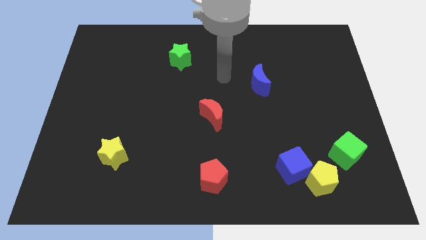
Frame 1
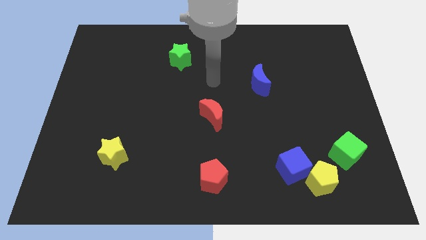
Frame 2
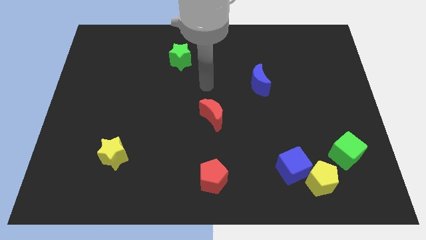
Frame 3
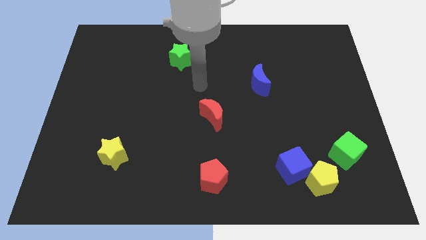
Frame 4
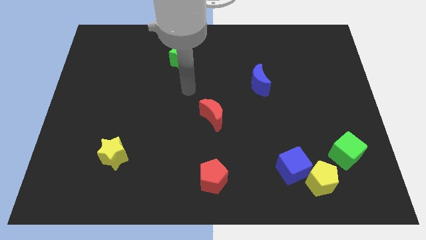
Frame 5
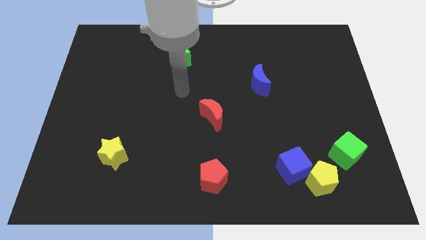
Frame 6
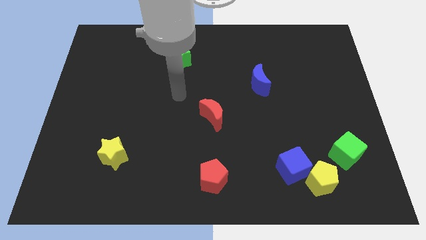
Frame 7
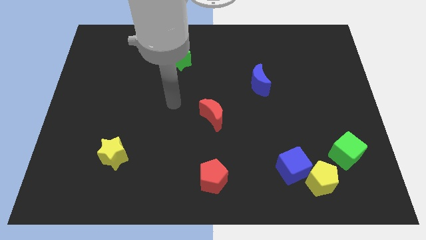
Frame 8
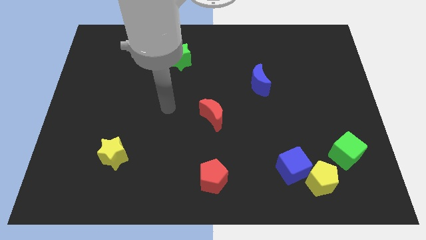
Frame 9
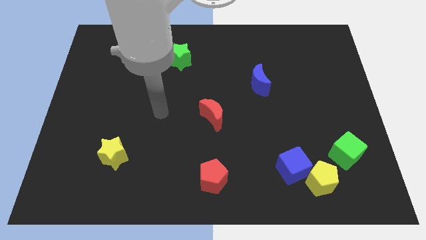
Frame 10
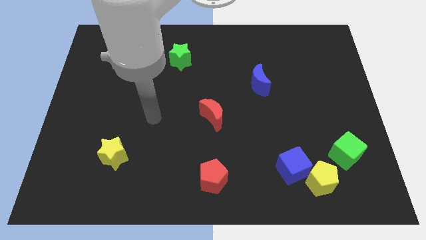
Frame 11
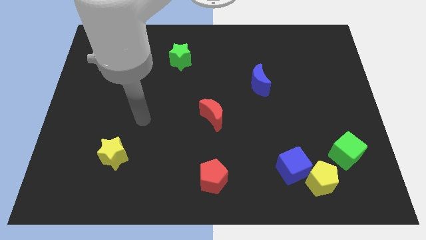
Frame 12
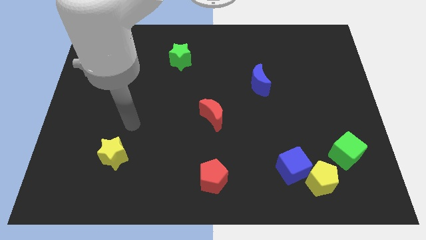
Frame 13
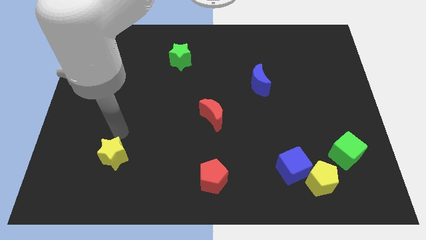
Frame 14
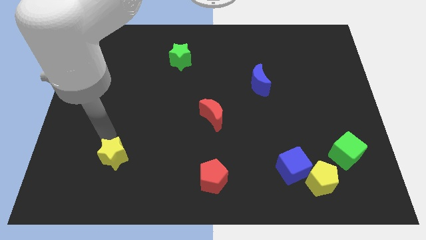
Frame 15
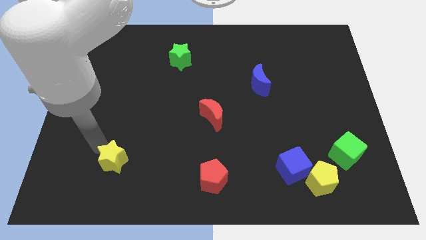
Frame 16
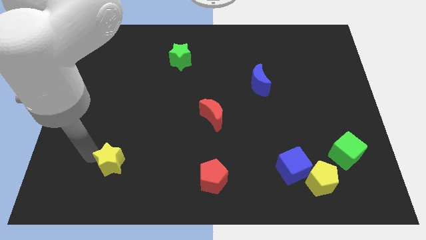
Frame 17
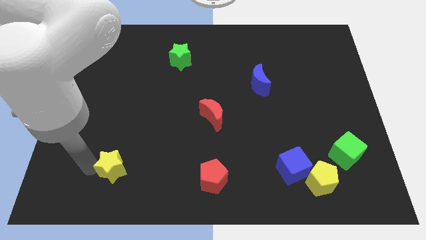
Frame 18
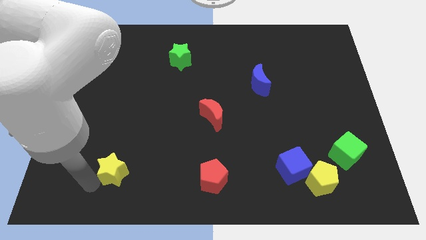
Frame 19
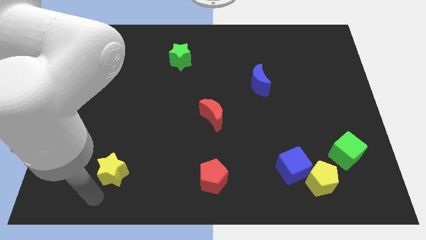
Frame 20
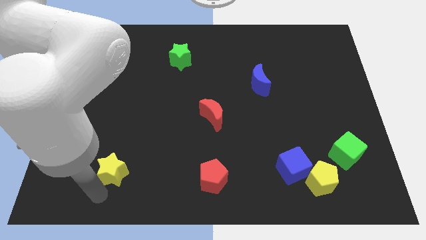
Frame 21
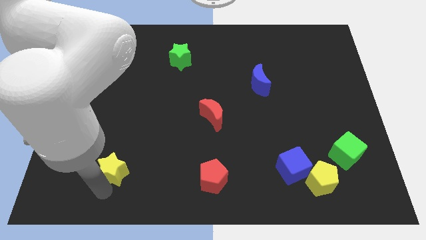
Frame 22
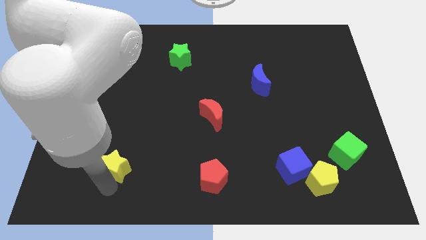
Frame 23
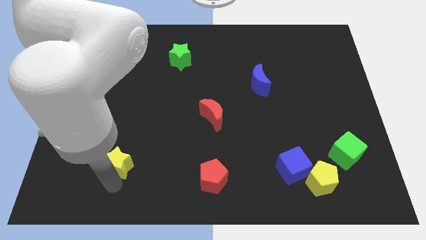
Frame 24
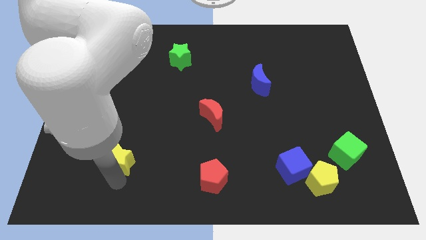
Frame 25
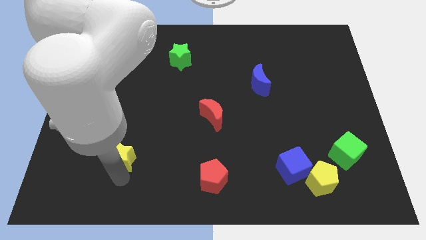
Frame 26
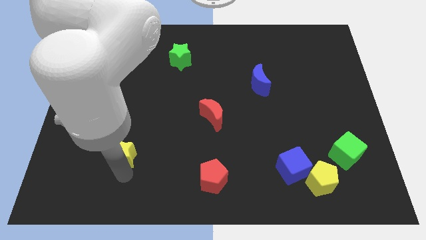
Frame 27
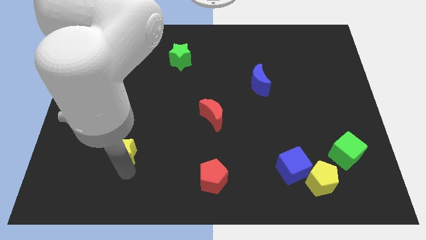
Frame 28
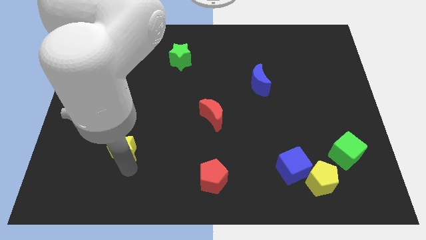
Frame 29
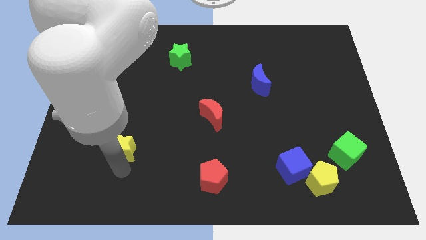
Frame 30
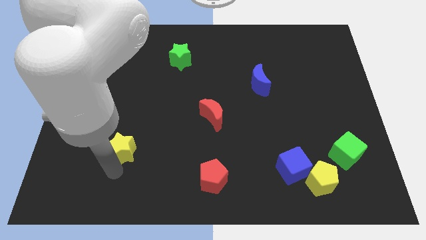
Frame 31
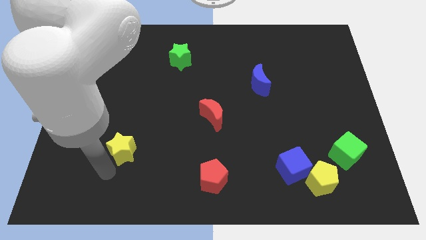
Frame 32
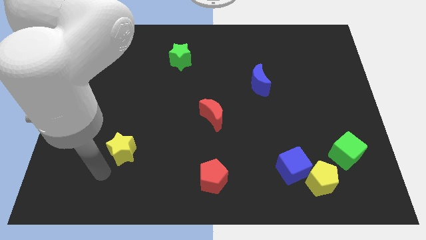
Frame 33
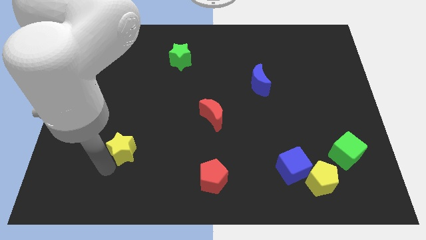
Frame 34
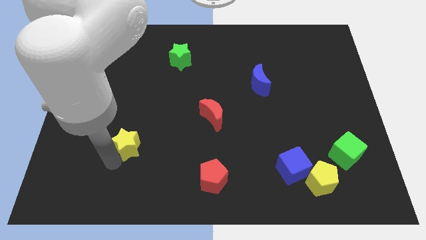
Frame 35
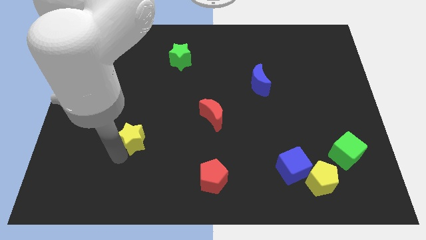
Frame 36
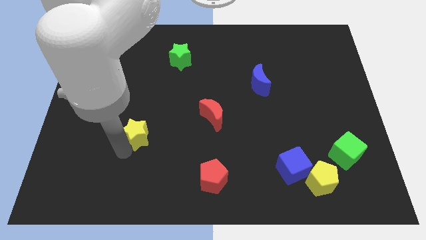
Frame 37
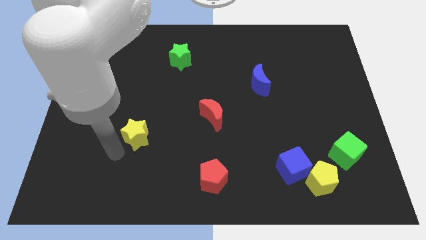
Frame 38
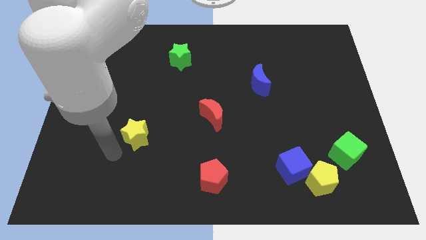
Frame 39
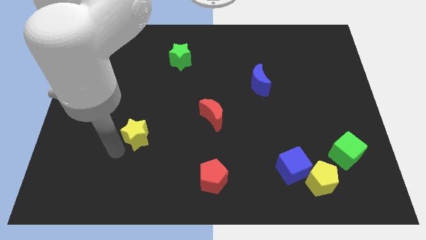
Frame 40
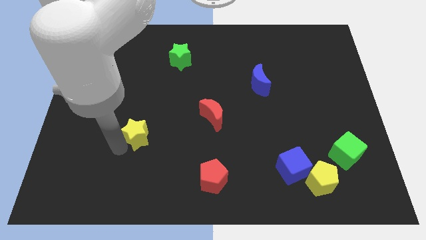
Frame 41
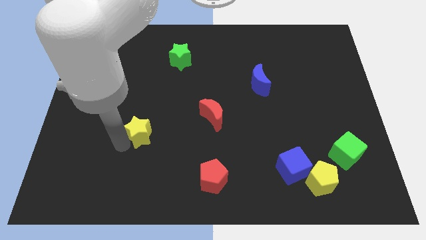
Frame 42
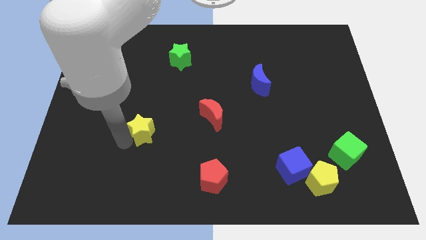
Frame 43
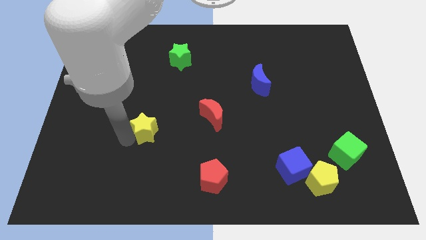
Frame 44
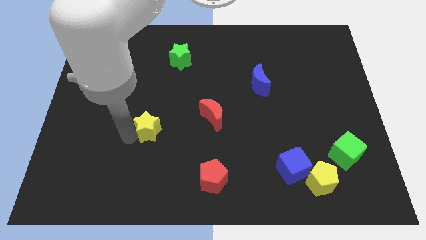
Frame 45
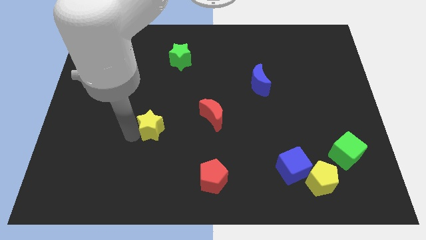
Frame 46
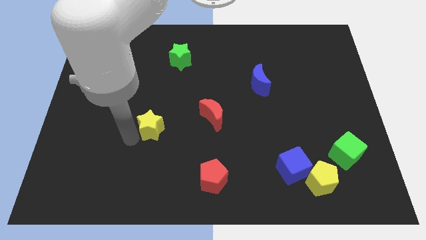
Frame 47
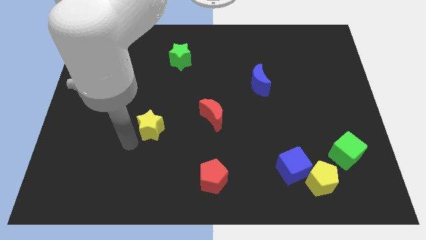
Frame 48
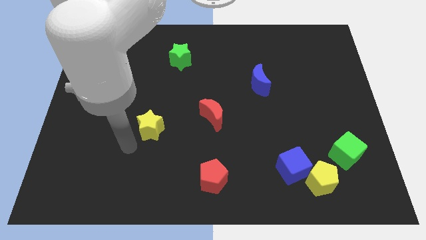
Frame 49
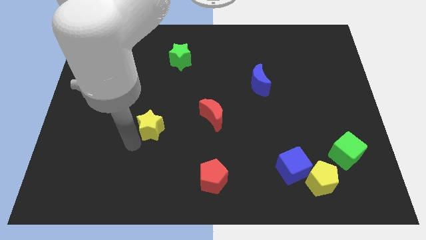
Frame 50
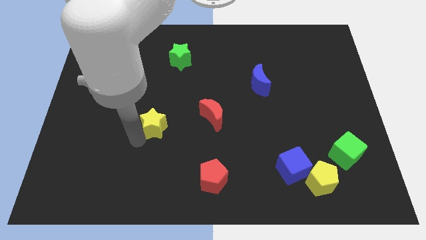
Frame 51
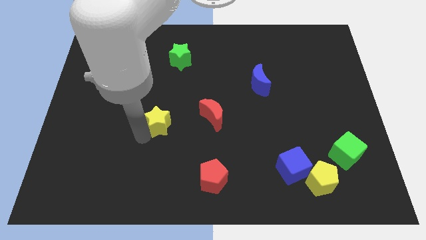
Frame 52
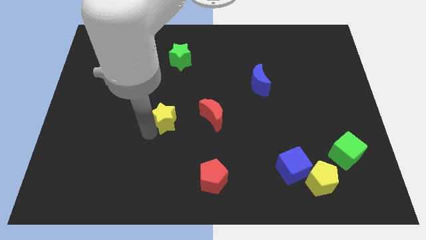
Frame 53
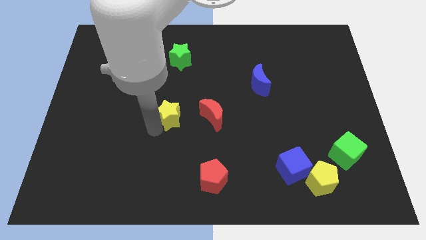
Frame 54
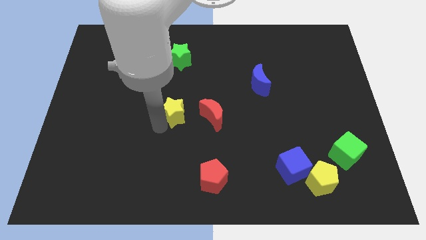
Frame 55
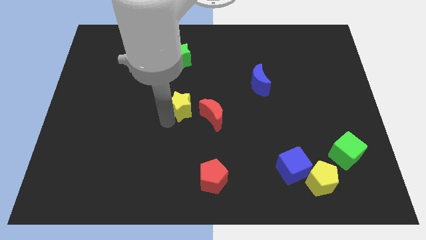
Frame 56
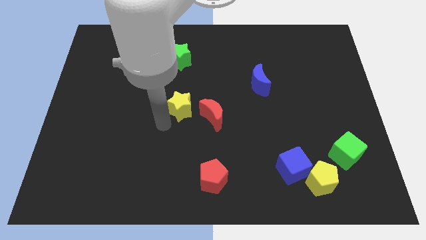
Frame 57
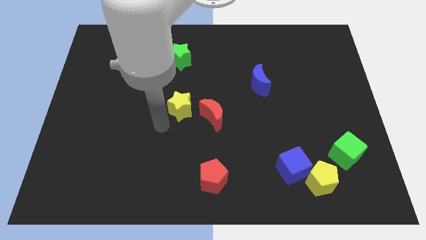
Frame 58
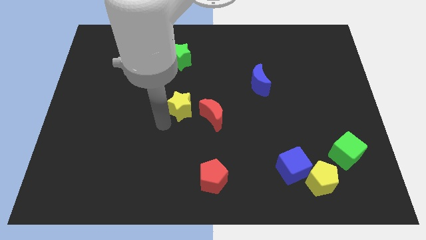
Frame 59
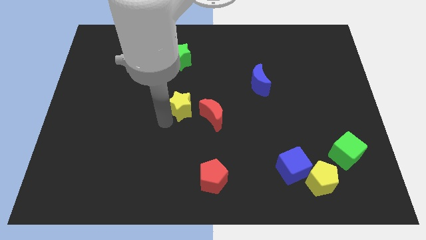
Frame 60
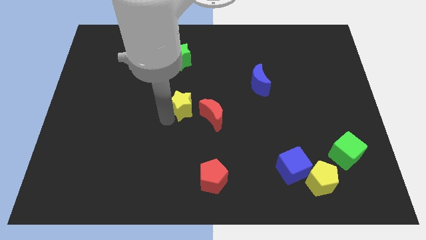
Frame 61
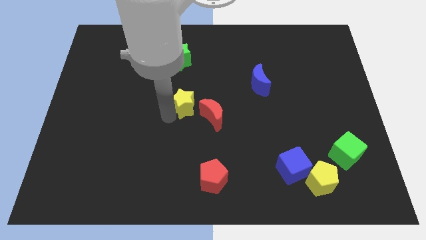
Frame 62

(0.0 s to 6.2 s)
slide the yellow star up and to the right

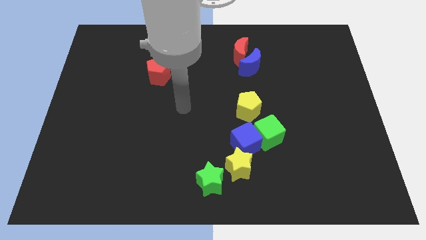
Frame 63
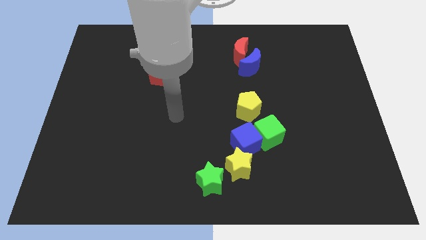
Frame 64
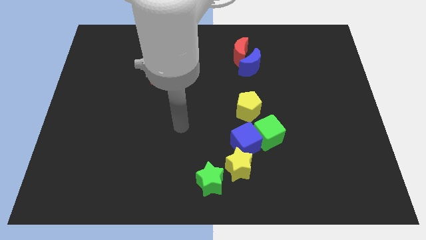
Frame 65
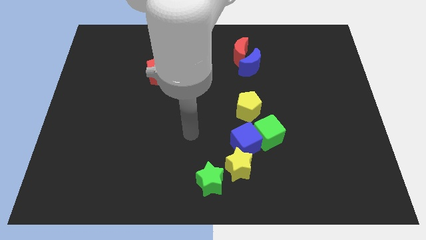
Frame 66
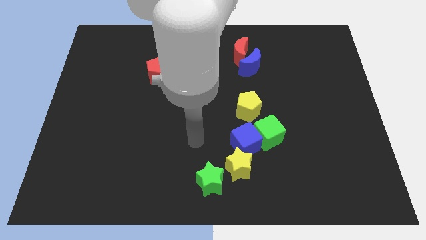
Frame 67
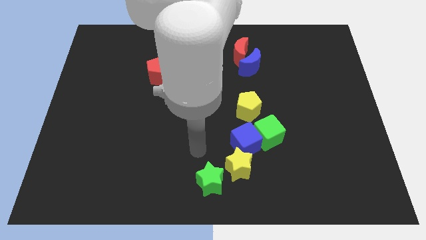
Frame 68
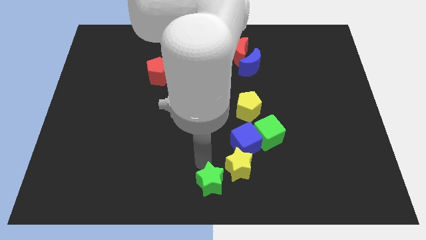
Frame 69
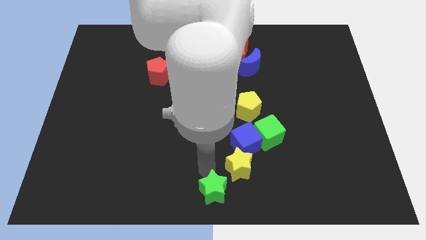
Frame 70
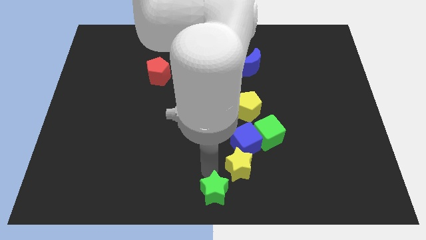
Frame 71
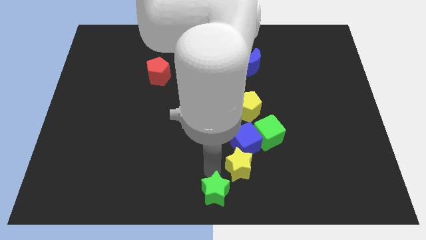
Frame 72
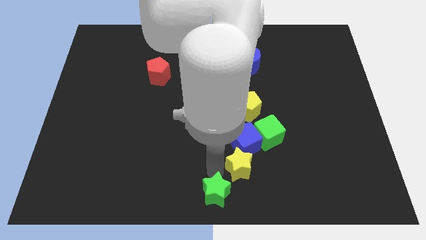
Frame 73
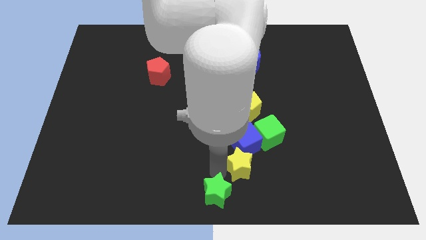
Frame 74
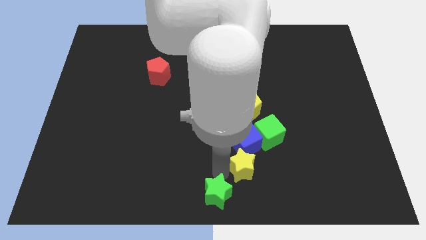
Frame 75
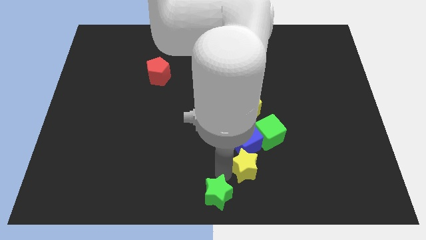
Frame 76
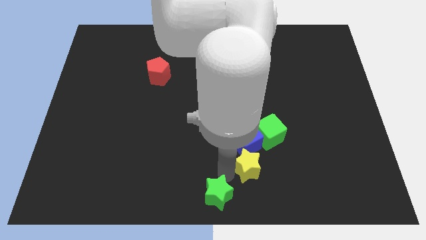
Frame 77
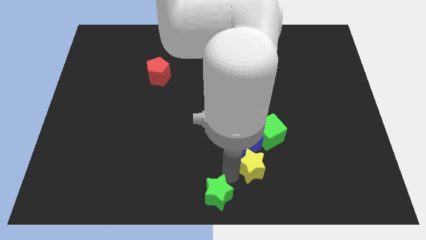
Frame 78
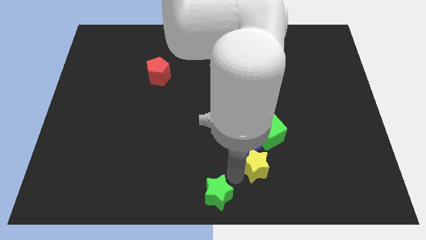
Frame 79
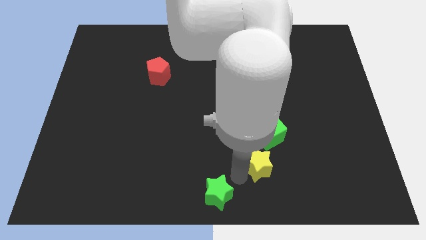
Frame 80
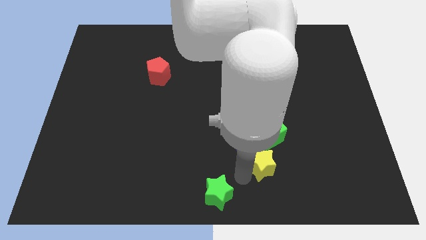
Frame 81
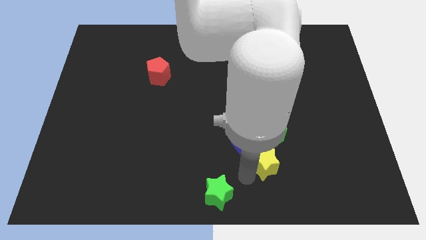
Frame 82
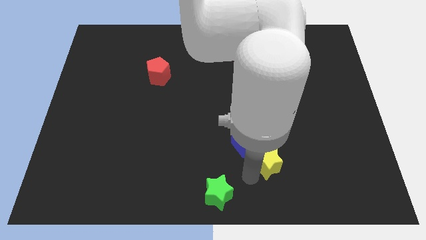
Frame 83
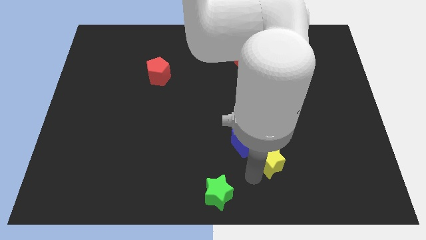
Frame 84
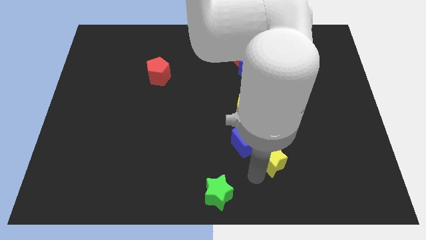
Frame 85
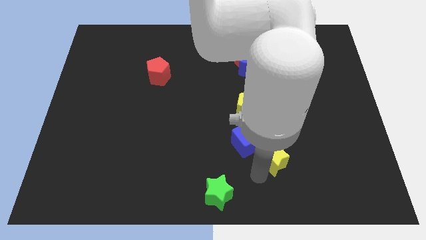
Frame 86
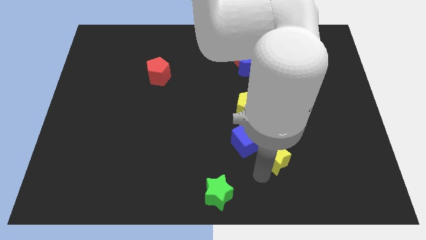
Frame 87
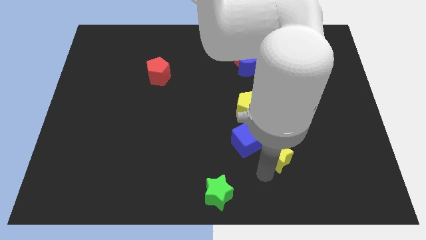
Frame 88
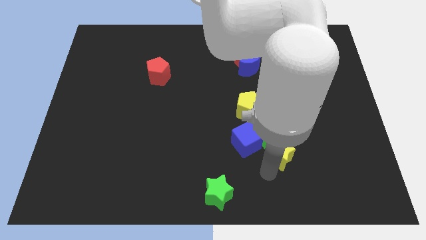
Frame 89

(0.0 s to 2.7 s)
slightly move the yellow star upwards and then to the right
